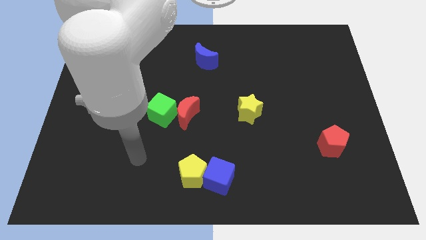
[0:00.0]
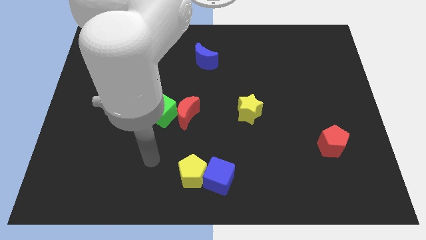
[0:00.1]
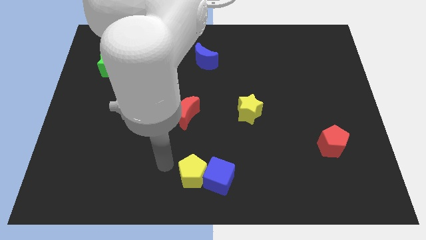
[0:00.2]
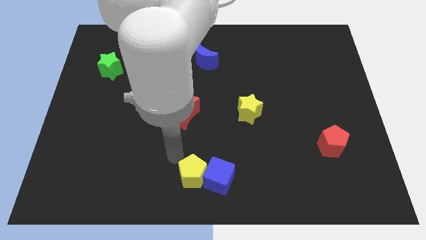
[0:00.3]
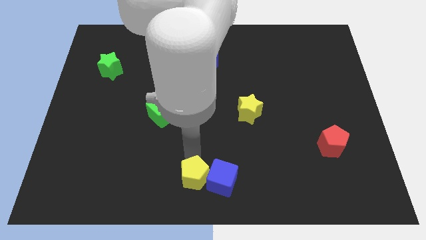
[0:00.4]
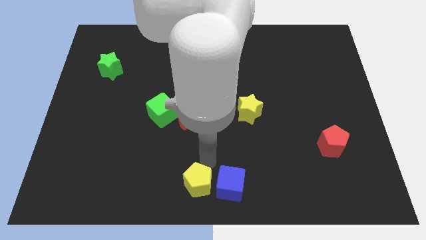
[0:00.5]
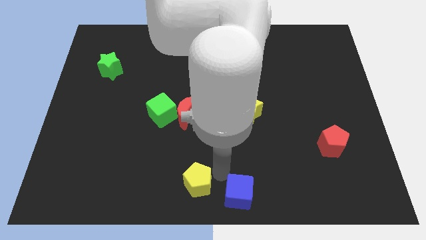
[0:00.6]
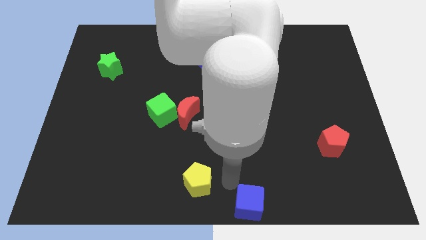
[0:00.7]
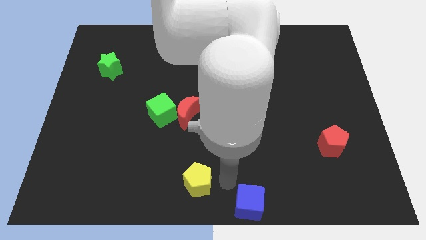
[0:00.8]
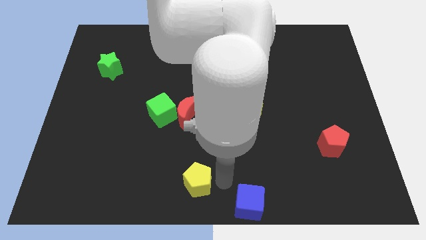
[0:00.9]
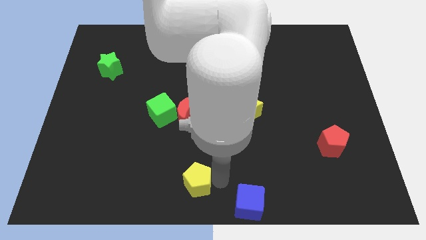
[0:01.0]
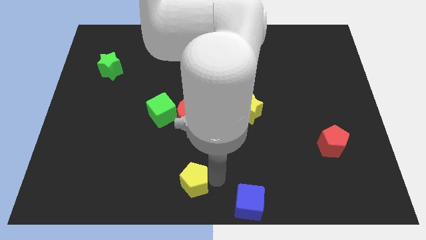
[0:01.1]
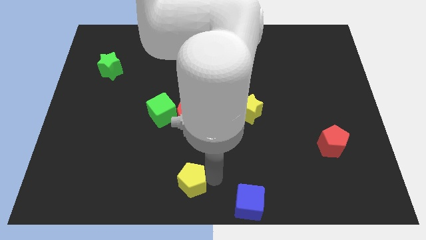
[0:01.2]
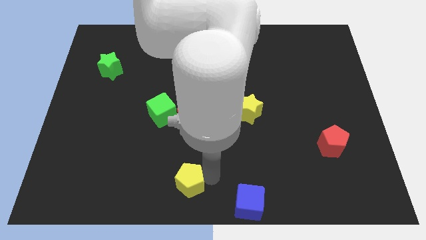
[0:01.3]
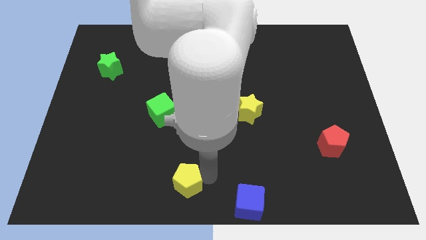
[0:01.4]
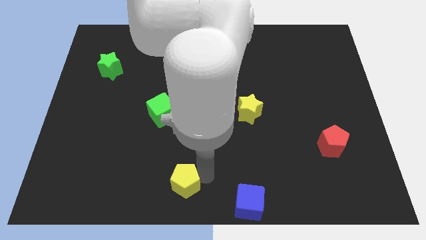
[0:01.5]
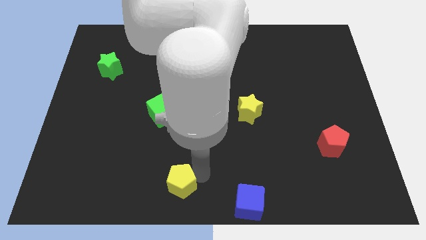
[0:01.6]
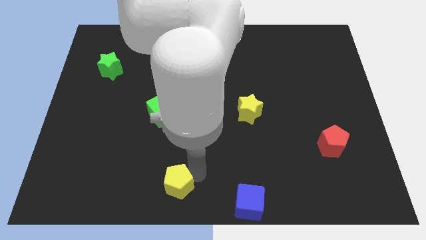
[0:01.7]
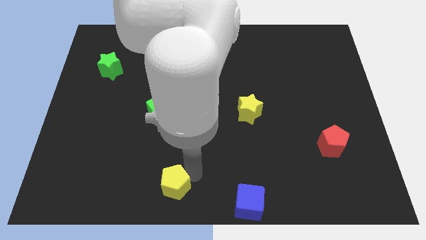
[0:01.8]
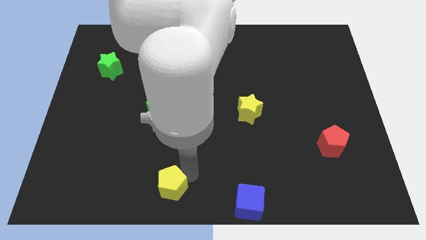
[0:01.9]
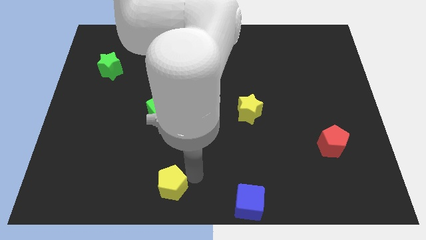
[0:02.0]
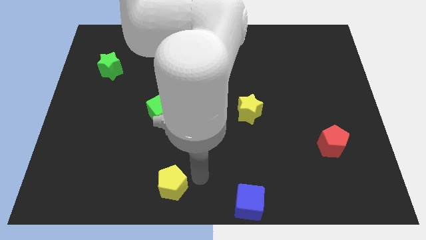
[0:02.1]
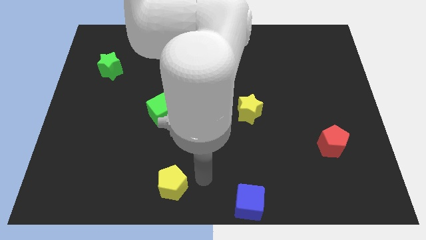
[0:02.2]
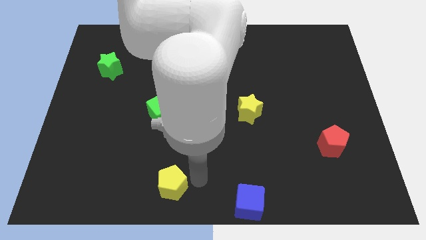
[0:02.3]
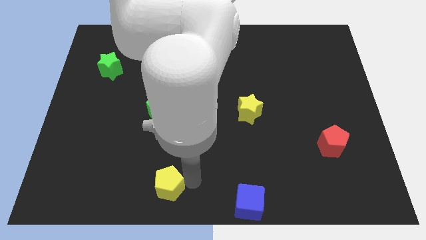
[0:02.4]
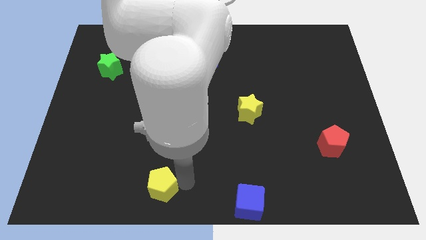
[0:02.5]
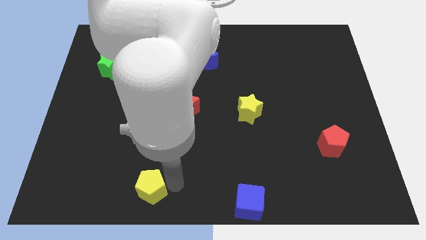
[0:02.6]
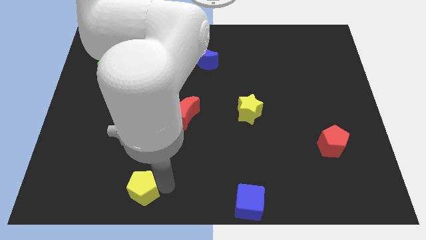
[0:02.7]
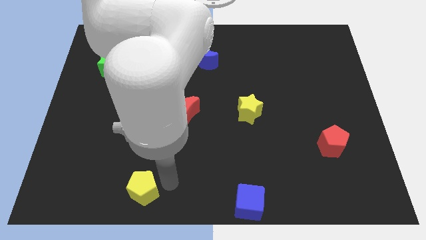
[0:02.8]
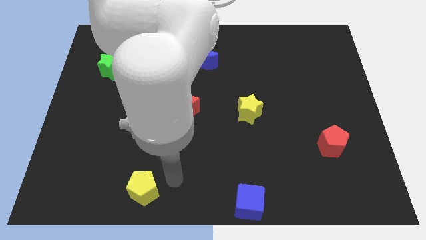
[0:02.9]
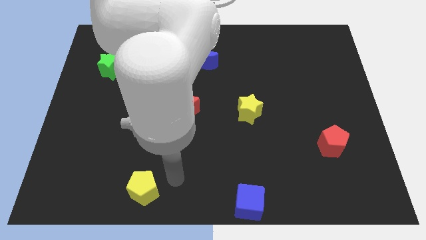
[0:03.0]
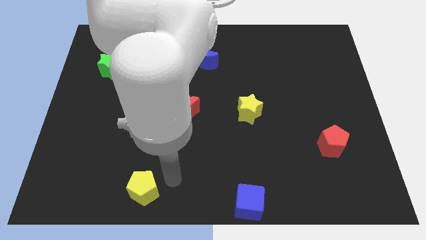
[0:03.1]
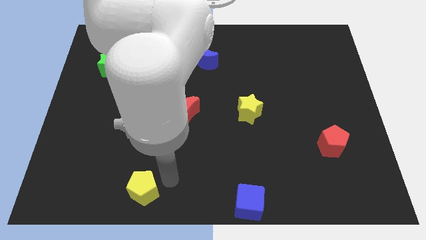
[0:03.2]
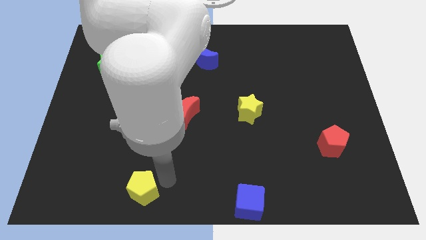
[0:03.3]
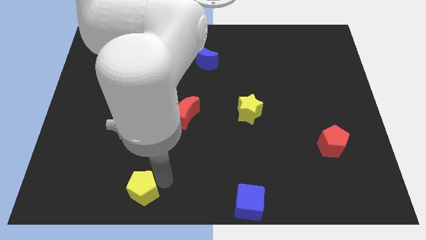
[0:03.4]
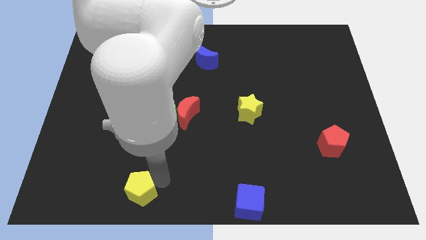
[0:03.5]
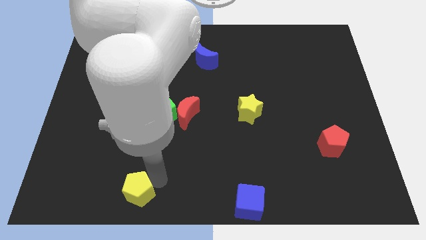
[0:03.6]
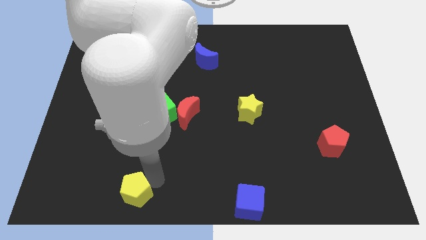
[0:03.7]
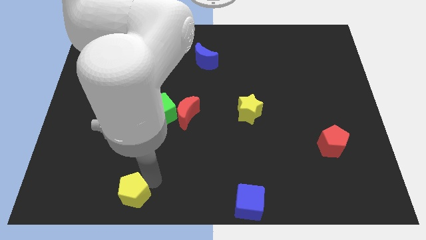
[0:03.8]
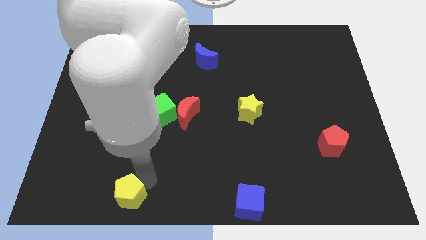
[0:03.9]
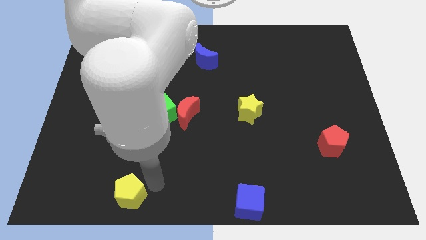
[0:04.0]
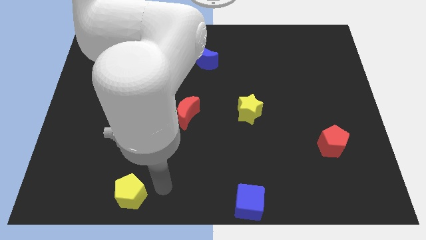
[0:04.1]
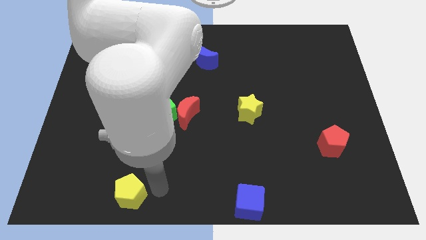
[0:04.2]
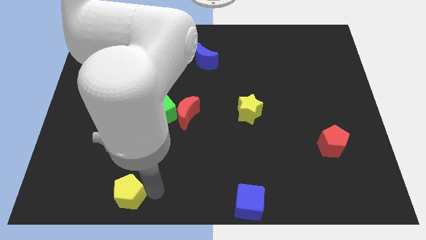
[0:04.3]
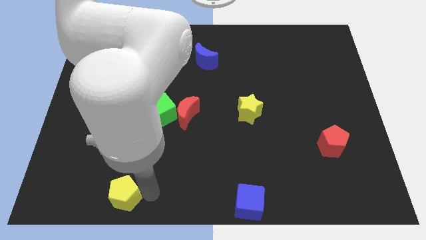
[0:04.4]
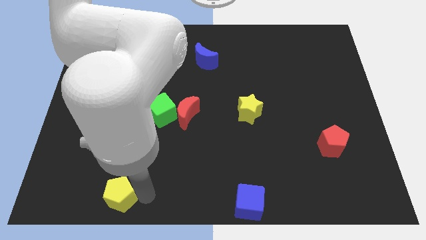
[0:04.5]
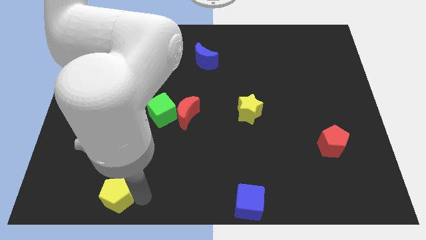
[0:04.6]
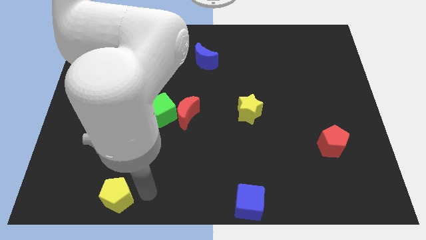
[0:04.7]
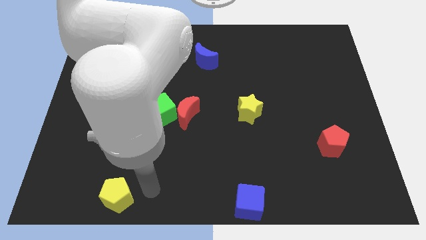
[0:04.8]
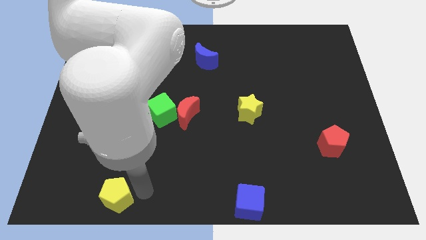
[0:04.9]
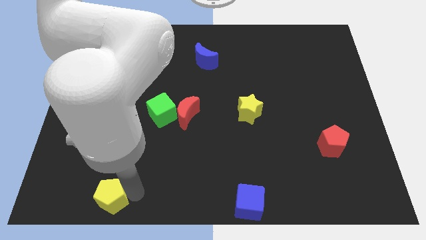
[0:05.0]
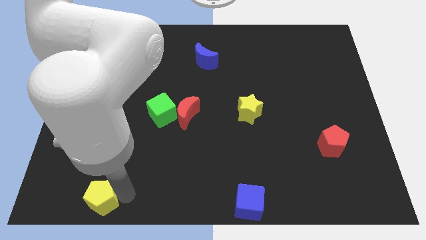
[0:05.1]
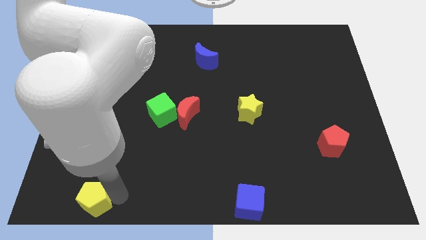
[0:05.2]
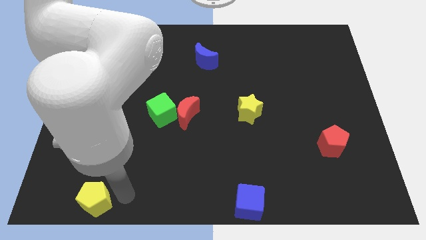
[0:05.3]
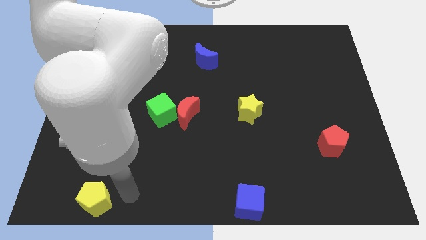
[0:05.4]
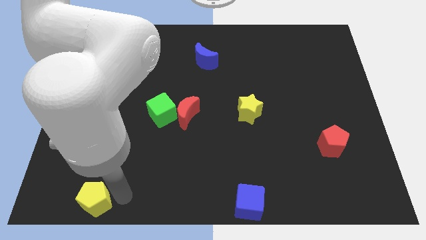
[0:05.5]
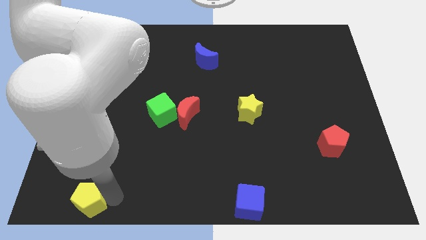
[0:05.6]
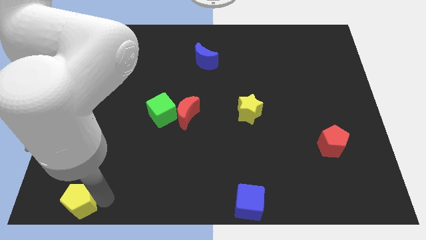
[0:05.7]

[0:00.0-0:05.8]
slide the yellow pentagon to the bottom left corner
